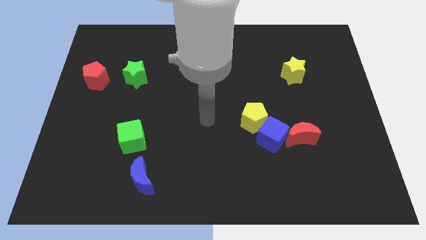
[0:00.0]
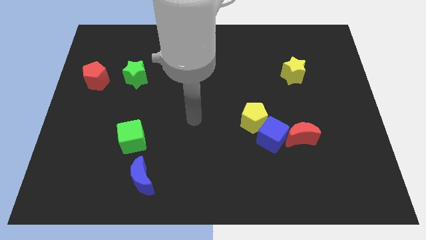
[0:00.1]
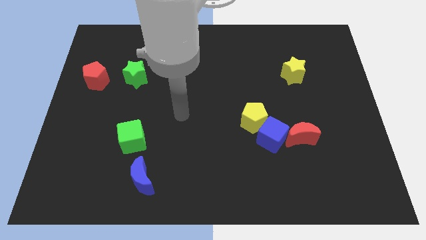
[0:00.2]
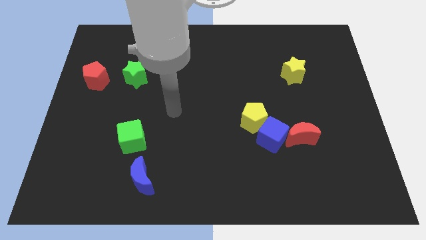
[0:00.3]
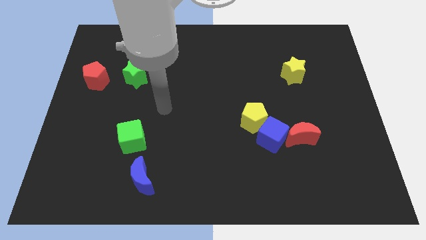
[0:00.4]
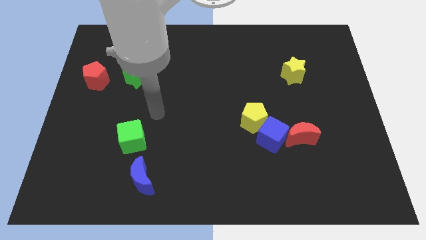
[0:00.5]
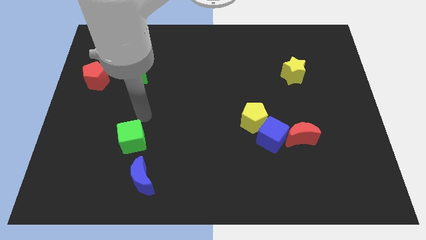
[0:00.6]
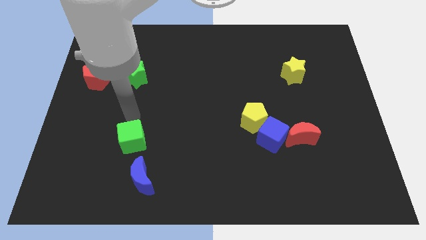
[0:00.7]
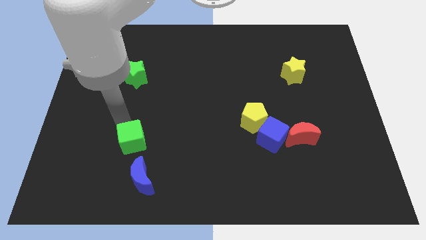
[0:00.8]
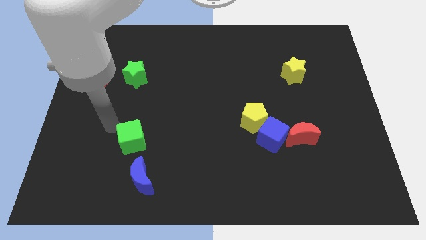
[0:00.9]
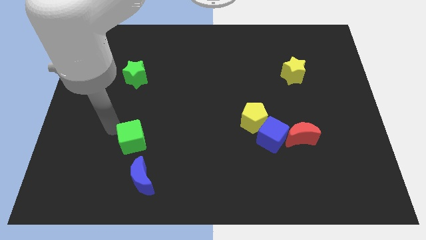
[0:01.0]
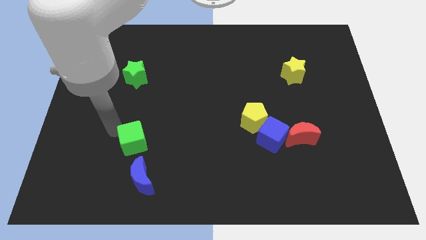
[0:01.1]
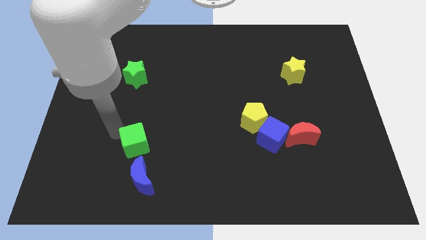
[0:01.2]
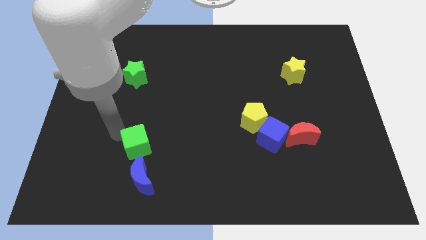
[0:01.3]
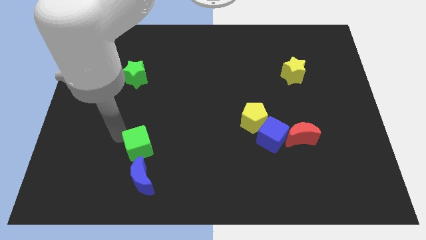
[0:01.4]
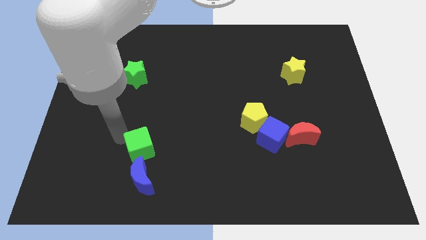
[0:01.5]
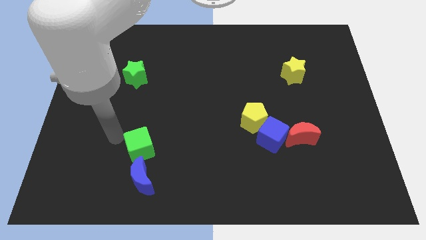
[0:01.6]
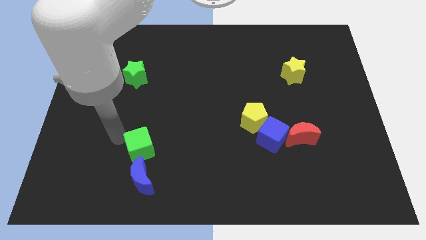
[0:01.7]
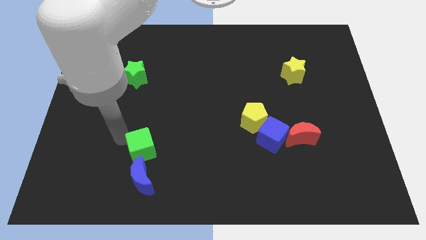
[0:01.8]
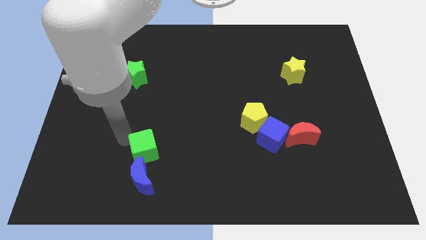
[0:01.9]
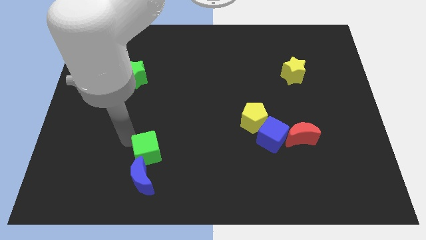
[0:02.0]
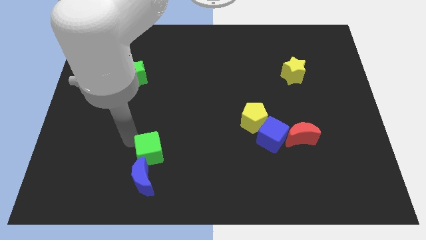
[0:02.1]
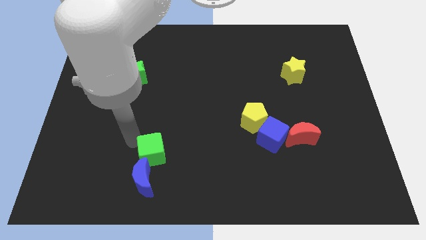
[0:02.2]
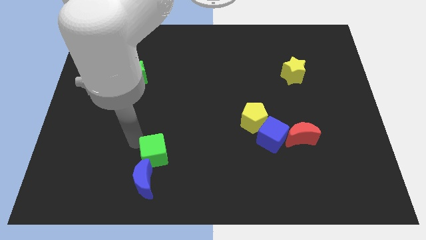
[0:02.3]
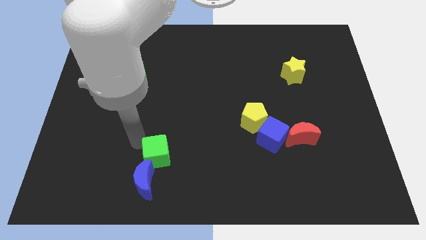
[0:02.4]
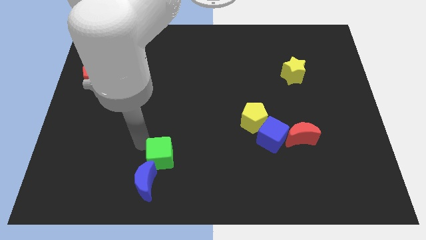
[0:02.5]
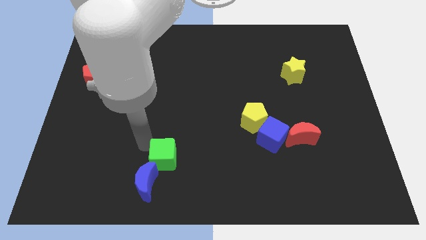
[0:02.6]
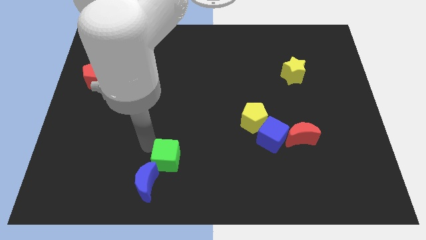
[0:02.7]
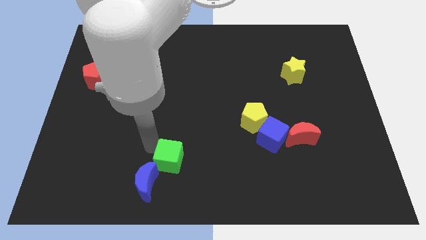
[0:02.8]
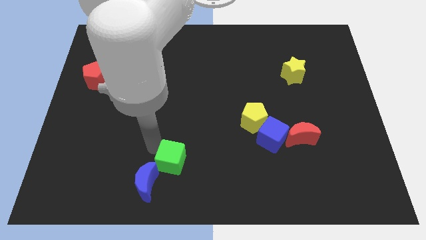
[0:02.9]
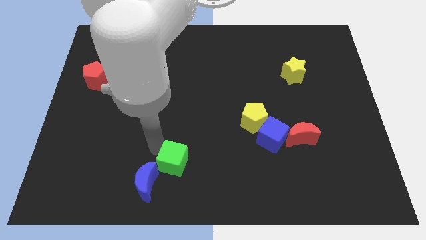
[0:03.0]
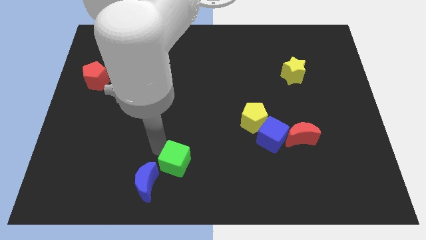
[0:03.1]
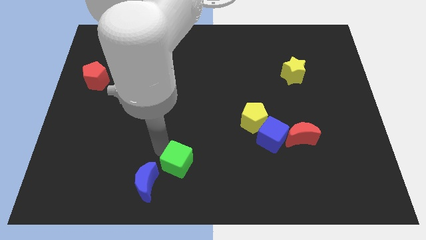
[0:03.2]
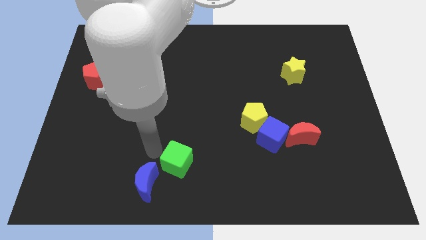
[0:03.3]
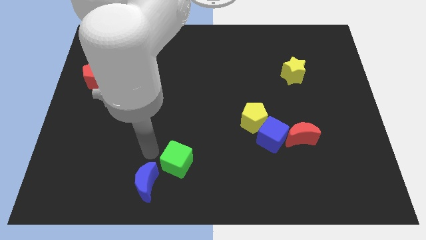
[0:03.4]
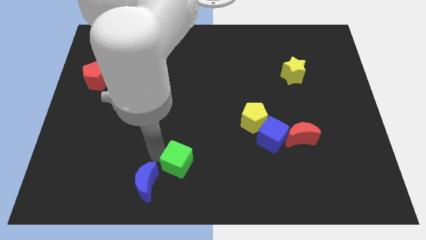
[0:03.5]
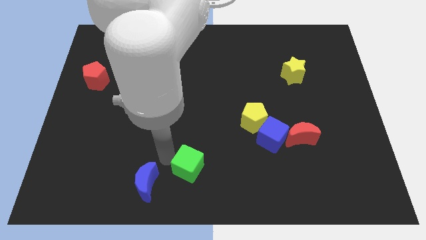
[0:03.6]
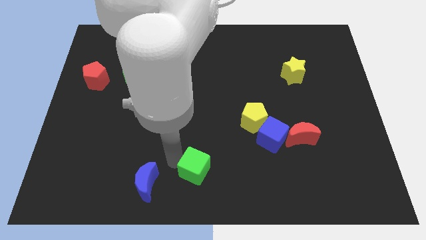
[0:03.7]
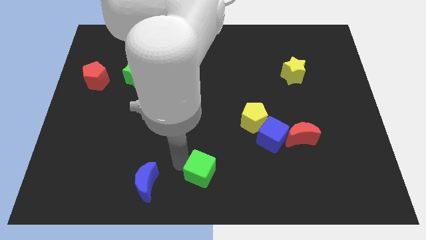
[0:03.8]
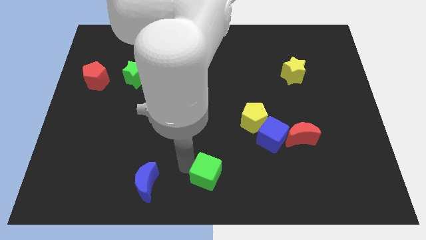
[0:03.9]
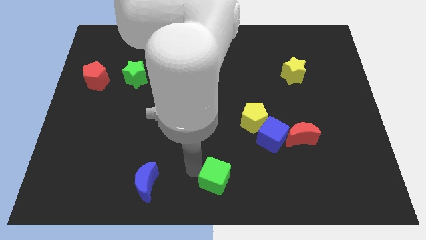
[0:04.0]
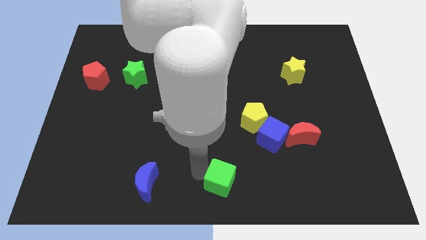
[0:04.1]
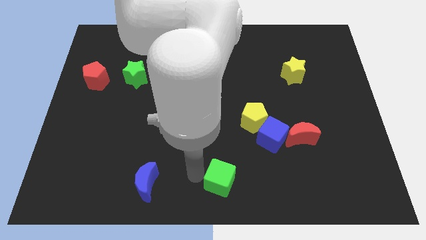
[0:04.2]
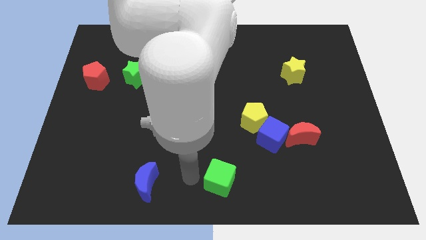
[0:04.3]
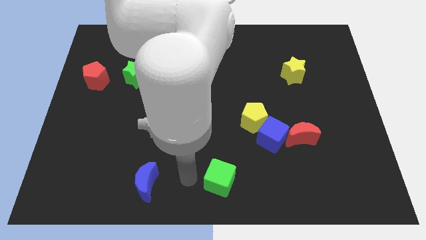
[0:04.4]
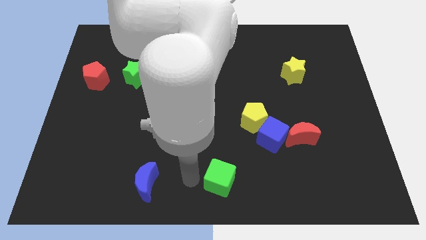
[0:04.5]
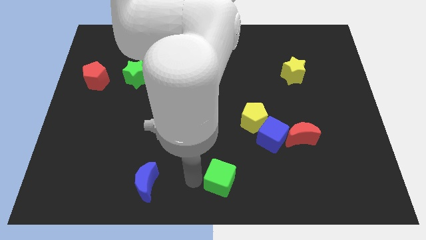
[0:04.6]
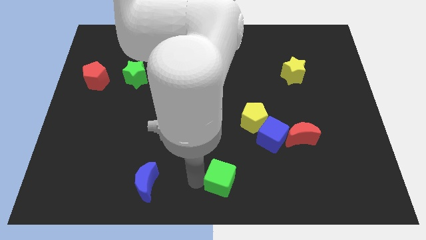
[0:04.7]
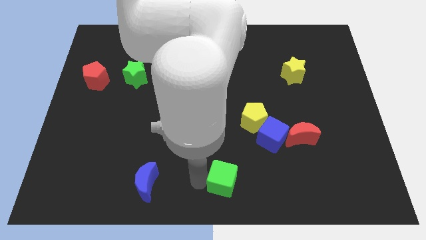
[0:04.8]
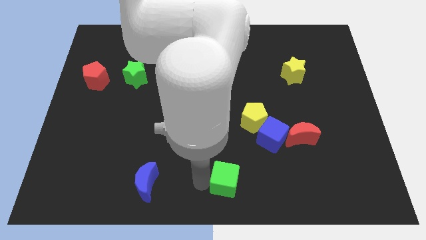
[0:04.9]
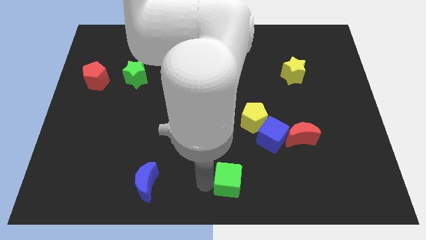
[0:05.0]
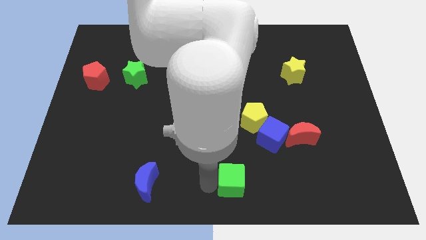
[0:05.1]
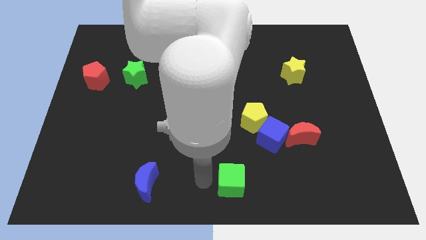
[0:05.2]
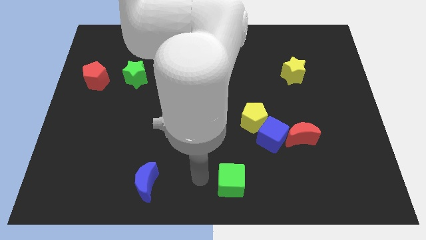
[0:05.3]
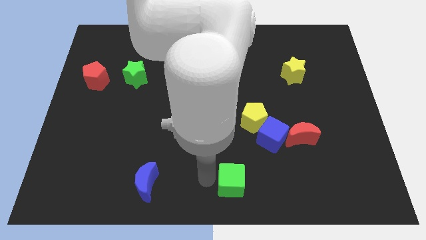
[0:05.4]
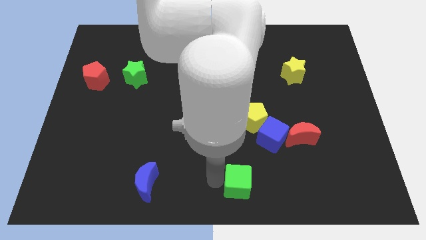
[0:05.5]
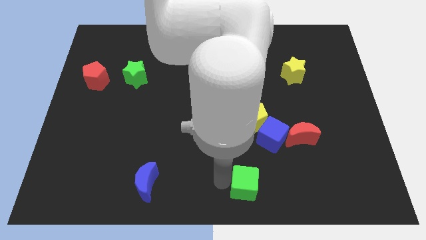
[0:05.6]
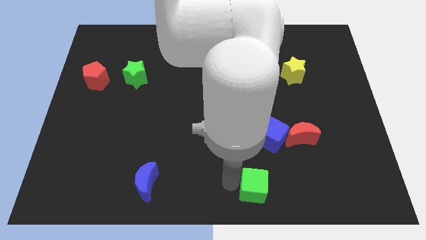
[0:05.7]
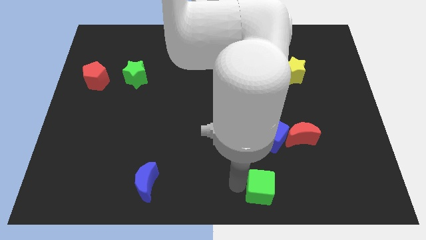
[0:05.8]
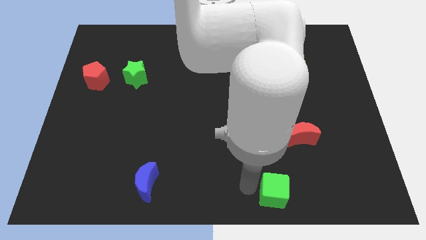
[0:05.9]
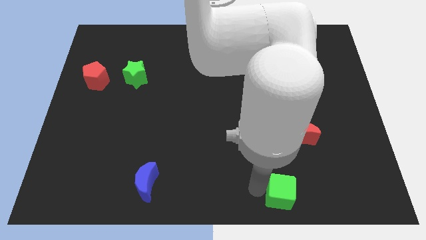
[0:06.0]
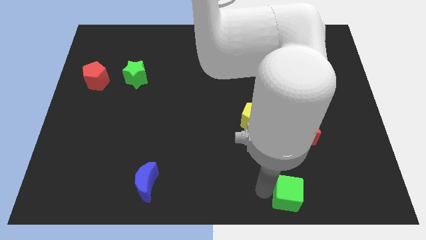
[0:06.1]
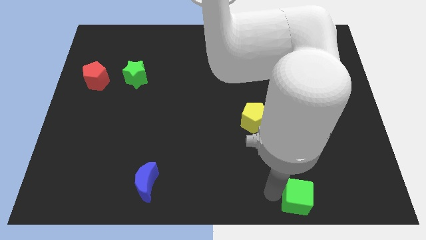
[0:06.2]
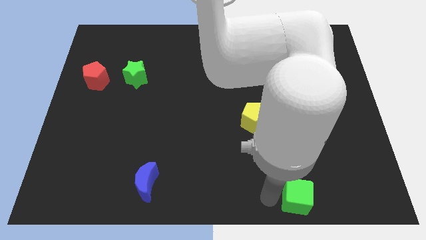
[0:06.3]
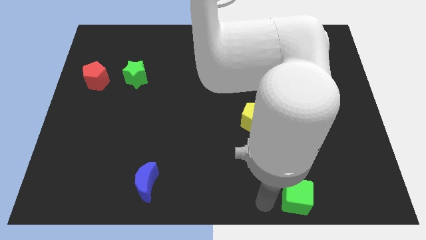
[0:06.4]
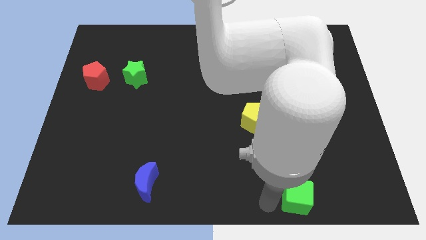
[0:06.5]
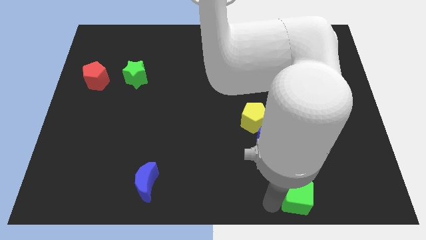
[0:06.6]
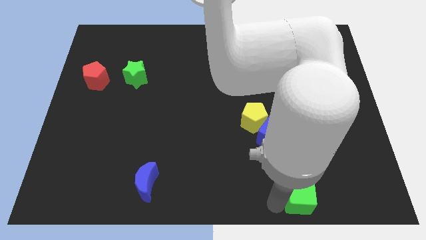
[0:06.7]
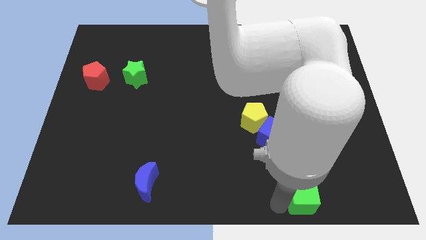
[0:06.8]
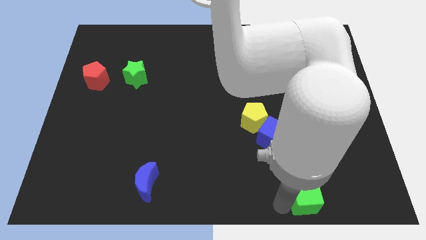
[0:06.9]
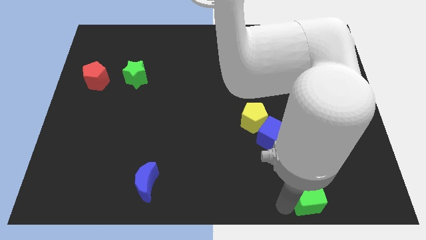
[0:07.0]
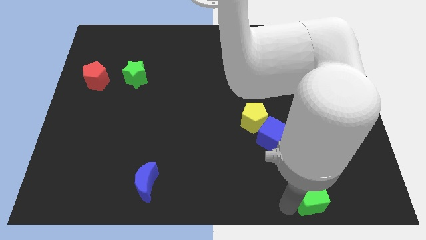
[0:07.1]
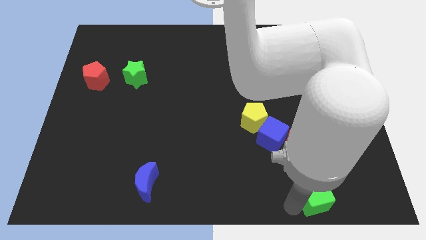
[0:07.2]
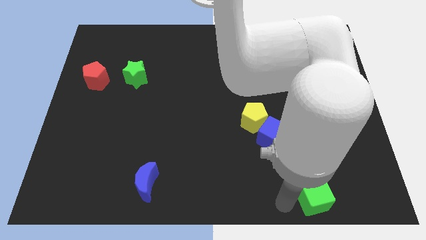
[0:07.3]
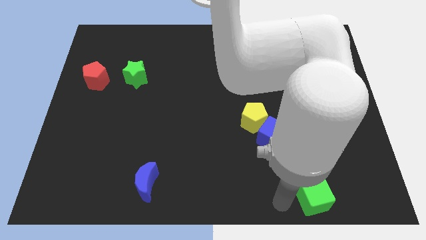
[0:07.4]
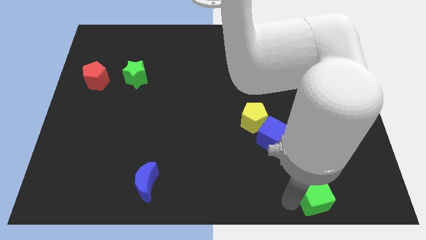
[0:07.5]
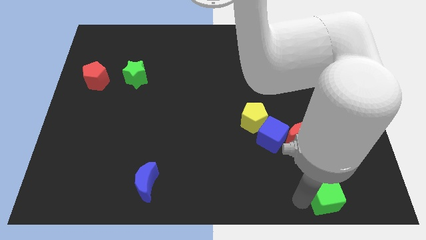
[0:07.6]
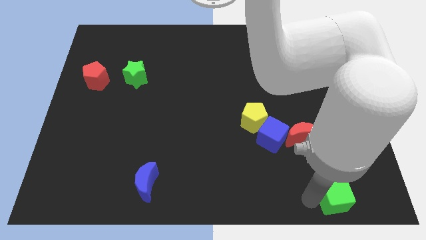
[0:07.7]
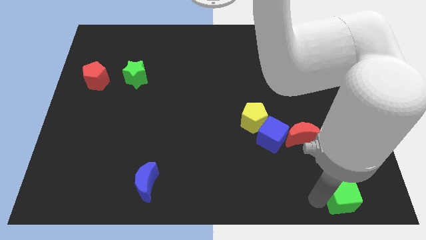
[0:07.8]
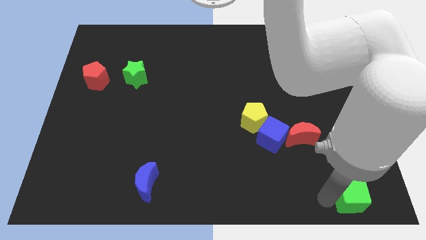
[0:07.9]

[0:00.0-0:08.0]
slide the green cube to the bottom right corner

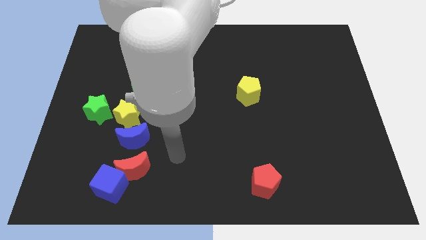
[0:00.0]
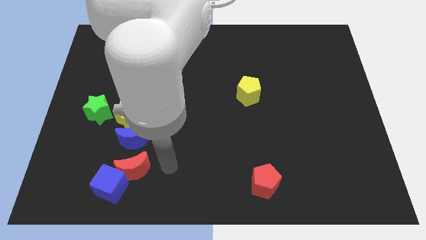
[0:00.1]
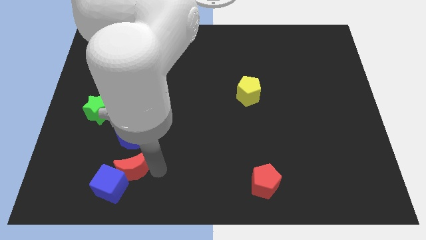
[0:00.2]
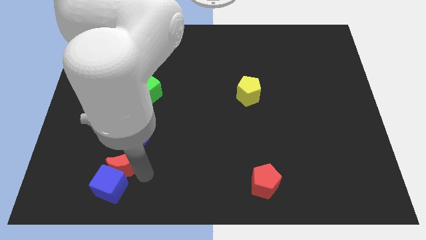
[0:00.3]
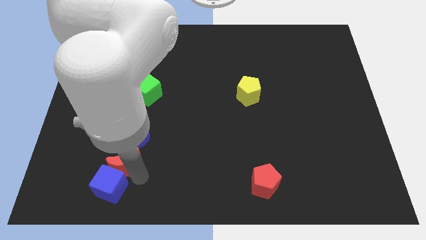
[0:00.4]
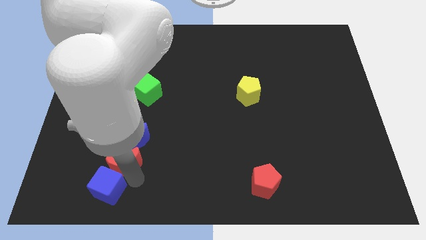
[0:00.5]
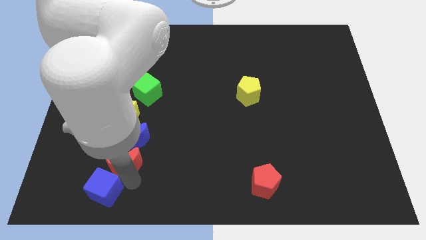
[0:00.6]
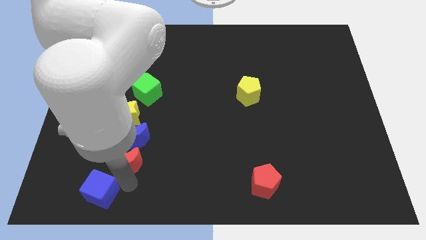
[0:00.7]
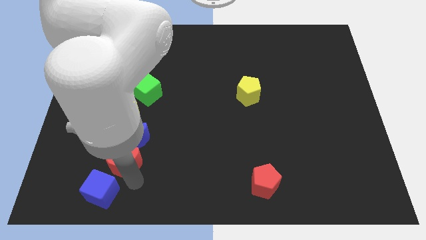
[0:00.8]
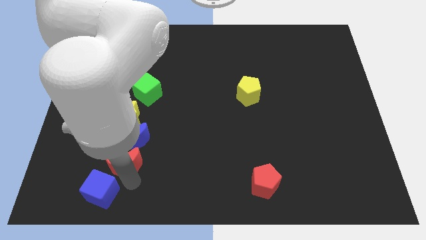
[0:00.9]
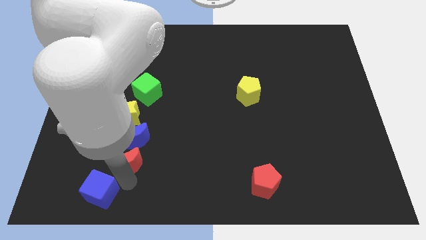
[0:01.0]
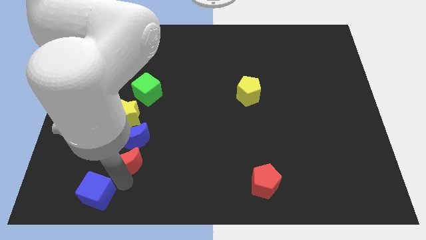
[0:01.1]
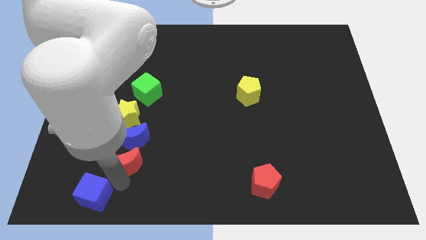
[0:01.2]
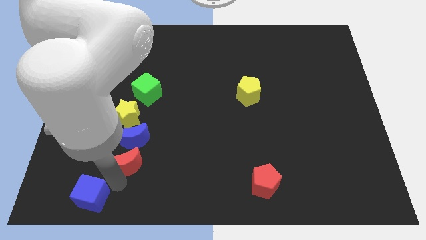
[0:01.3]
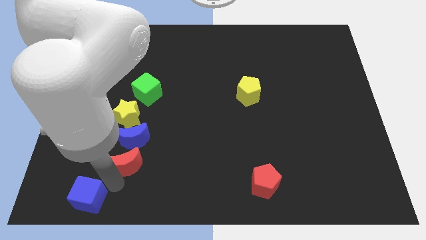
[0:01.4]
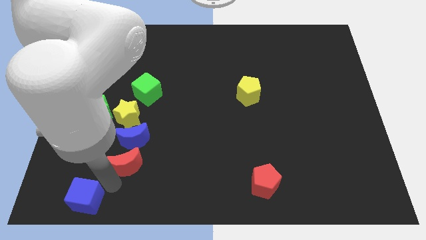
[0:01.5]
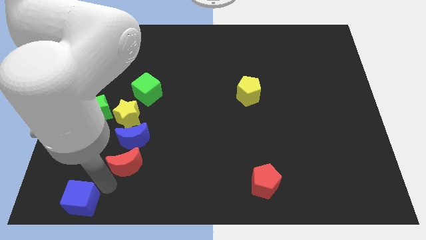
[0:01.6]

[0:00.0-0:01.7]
slide the blue cube to the lower left corner
